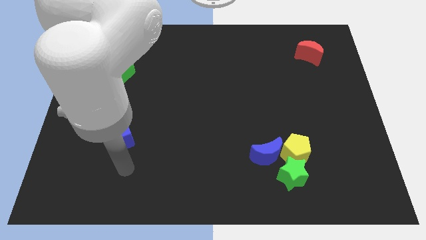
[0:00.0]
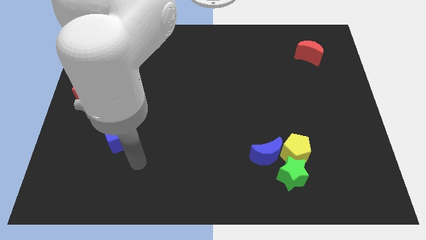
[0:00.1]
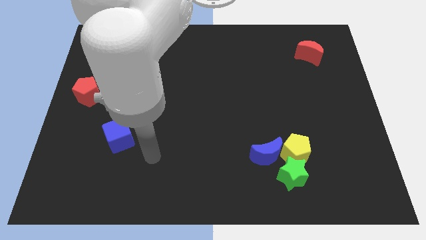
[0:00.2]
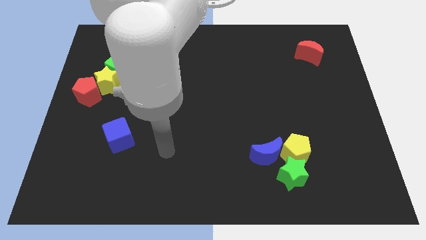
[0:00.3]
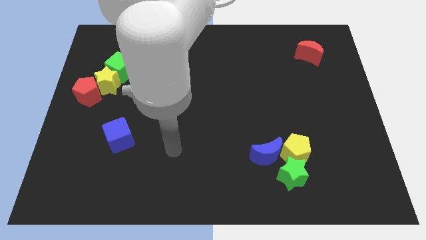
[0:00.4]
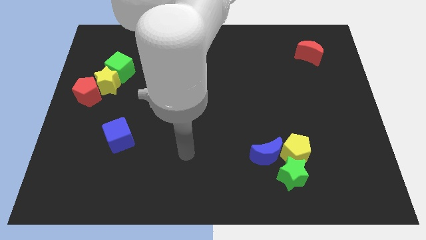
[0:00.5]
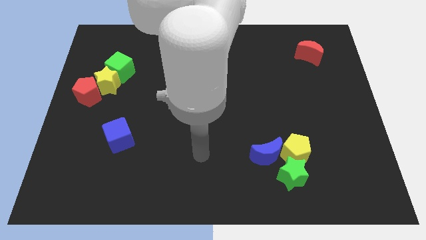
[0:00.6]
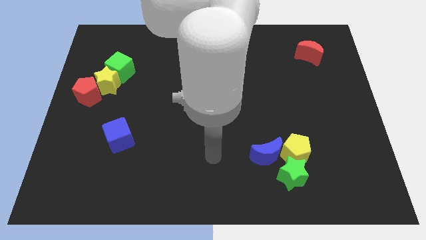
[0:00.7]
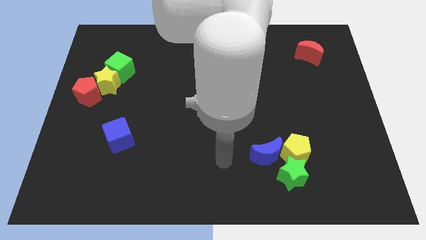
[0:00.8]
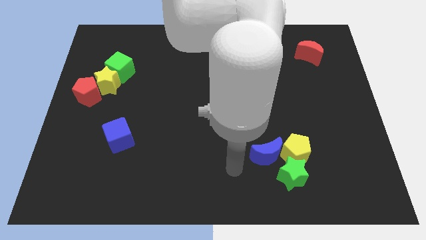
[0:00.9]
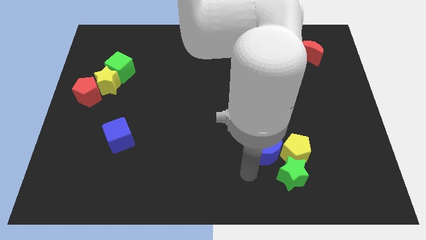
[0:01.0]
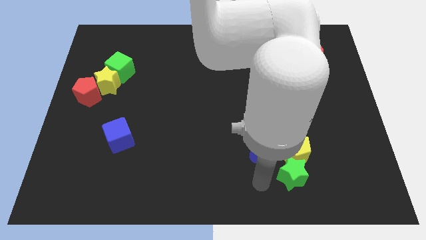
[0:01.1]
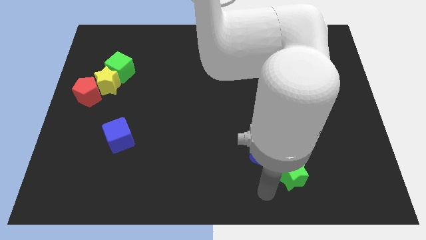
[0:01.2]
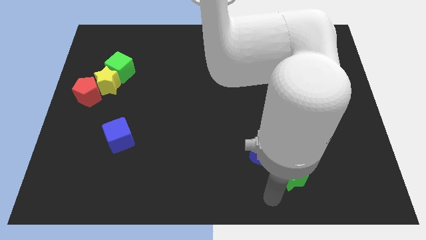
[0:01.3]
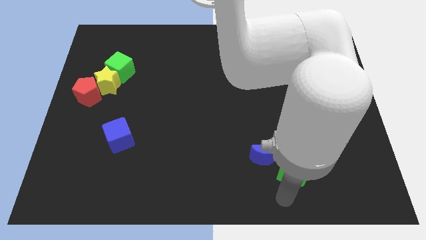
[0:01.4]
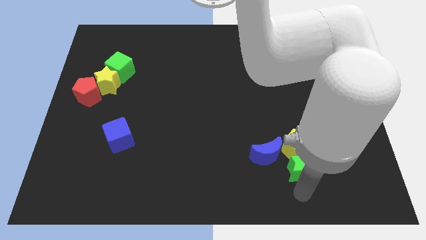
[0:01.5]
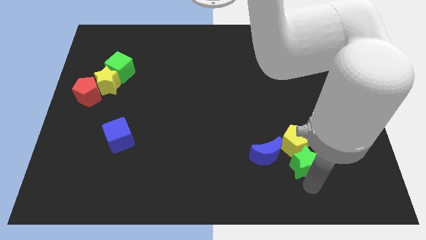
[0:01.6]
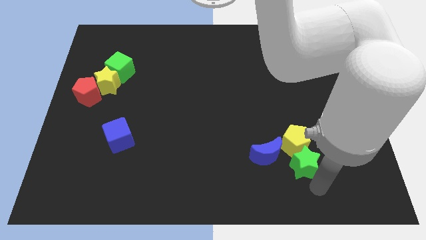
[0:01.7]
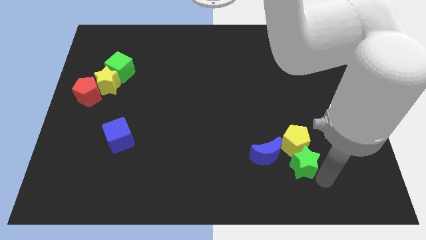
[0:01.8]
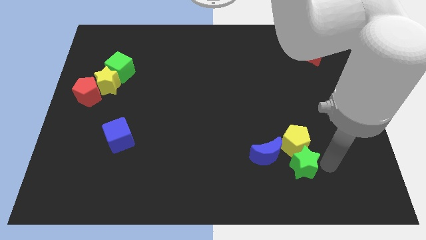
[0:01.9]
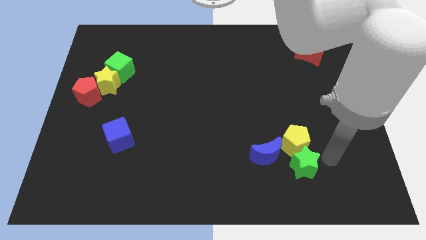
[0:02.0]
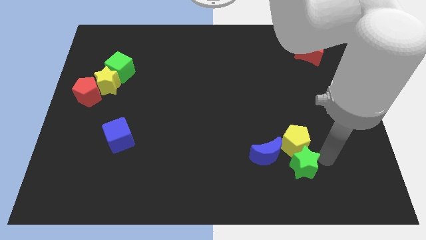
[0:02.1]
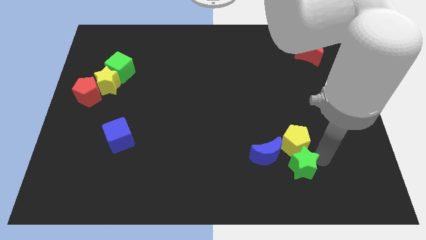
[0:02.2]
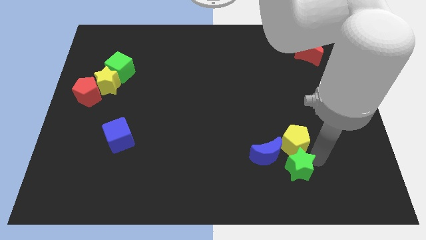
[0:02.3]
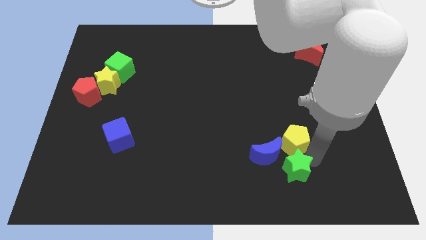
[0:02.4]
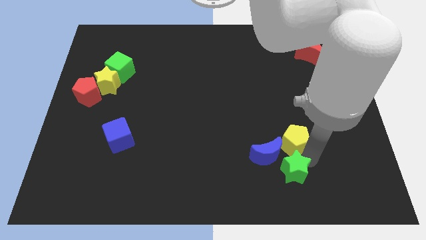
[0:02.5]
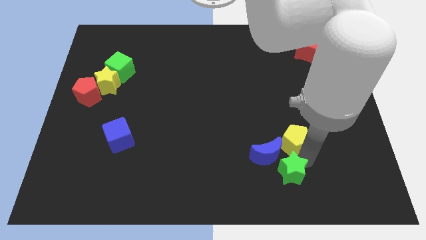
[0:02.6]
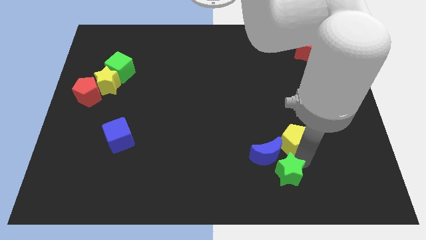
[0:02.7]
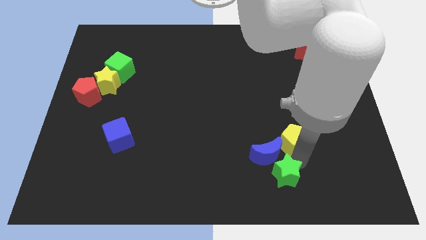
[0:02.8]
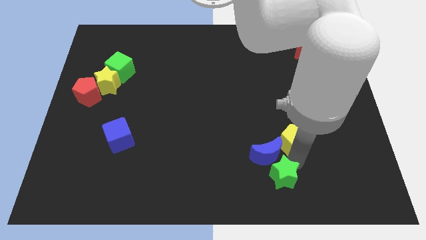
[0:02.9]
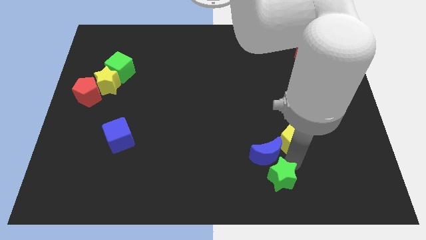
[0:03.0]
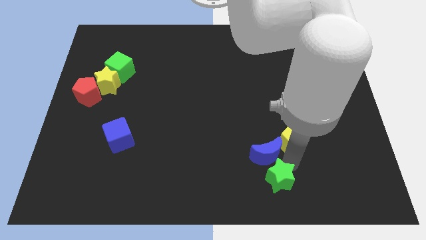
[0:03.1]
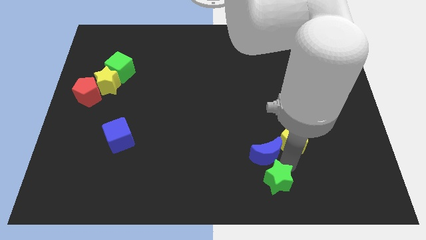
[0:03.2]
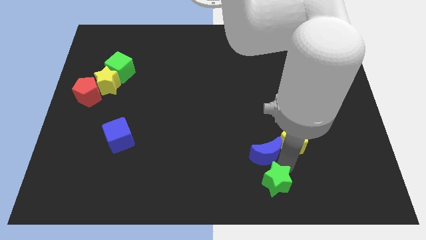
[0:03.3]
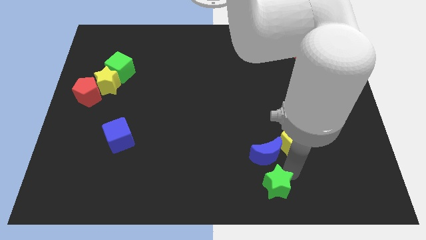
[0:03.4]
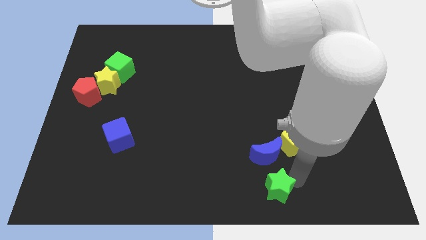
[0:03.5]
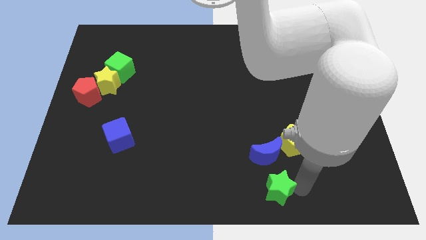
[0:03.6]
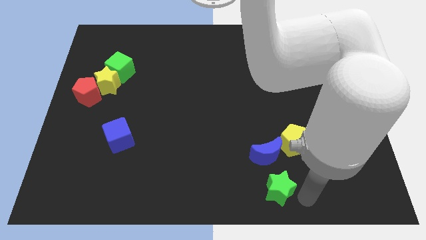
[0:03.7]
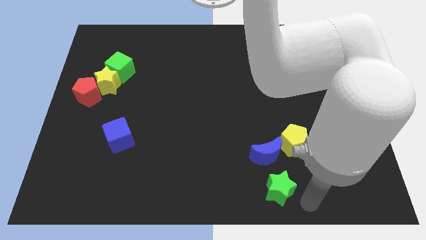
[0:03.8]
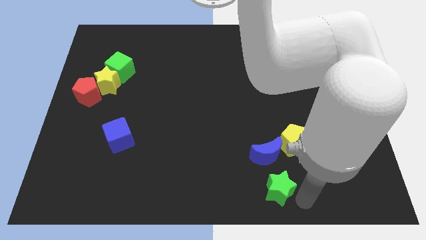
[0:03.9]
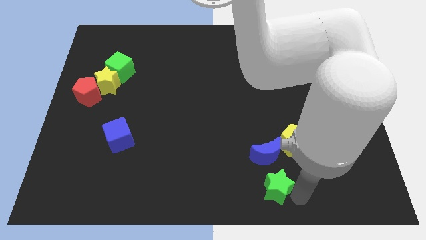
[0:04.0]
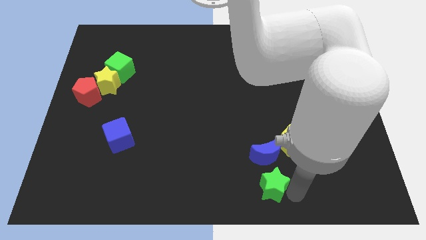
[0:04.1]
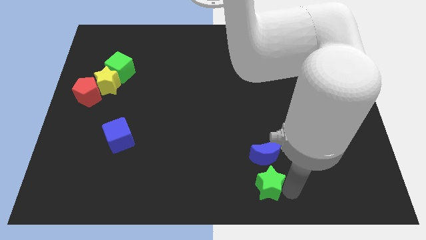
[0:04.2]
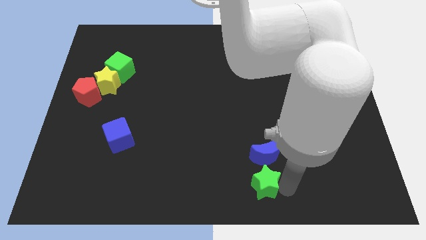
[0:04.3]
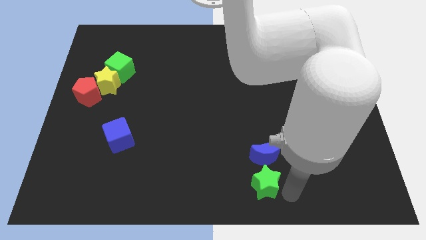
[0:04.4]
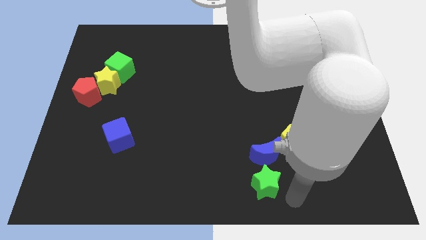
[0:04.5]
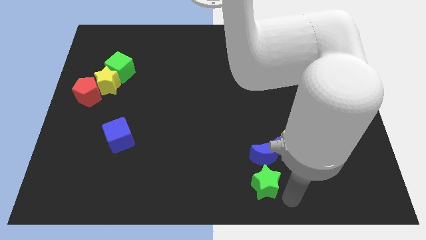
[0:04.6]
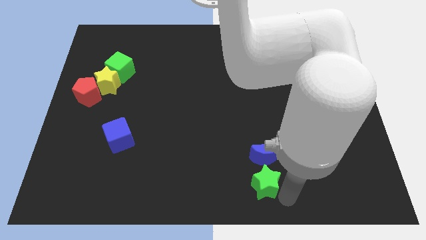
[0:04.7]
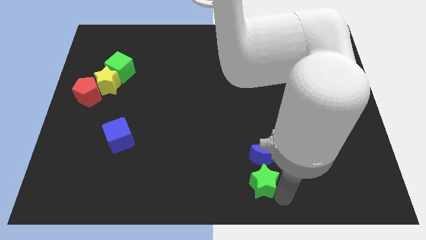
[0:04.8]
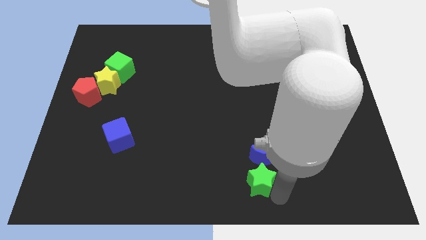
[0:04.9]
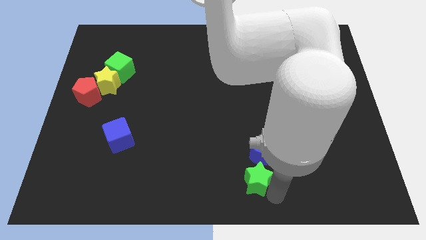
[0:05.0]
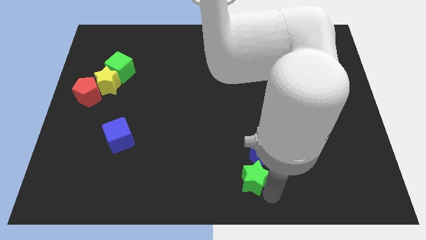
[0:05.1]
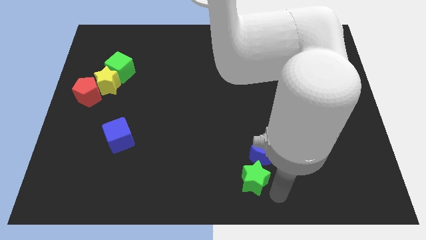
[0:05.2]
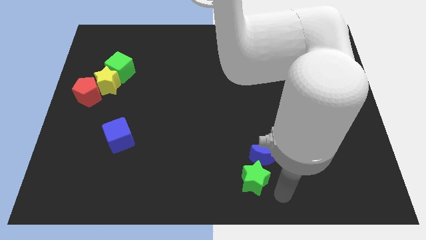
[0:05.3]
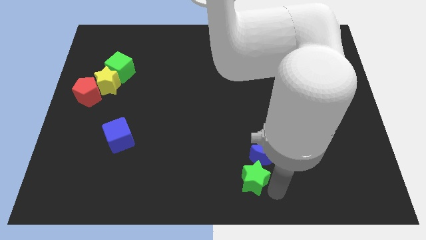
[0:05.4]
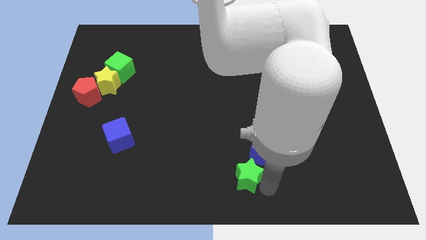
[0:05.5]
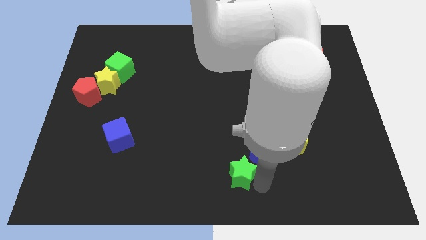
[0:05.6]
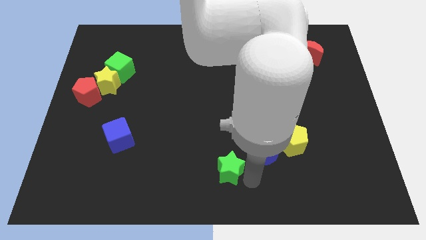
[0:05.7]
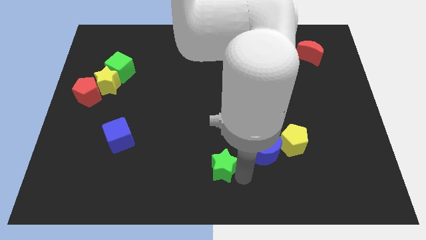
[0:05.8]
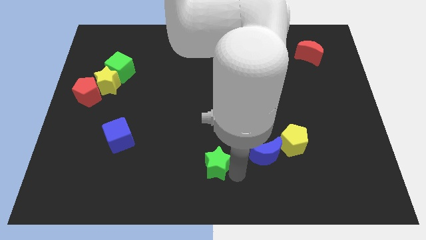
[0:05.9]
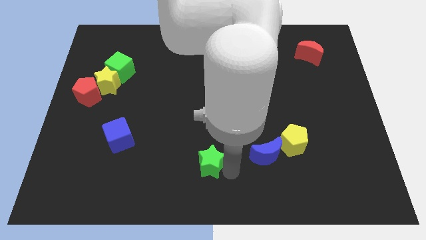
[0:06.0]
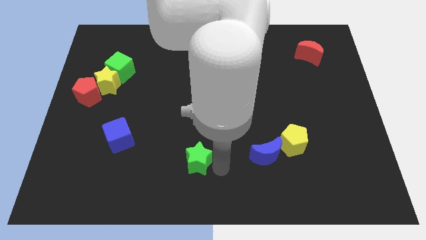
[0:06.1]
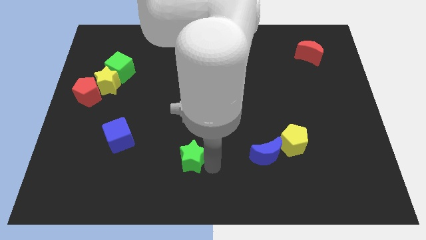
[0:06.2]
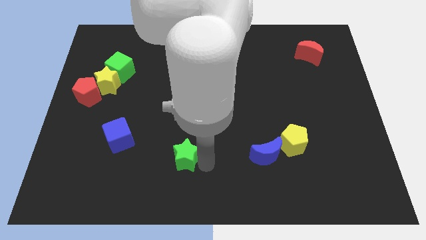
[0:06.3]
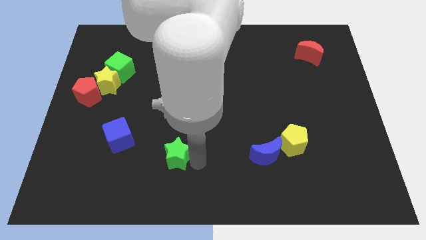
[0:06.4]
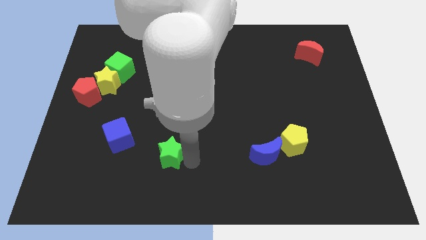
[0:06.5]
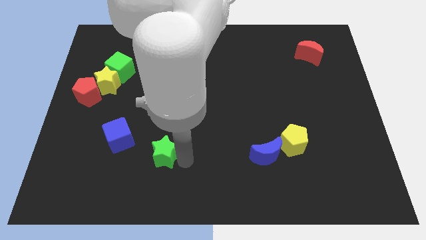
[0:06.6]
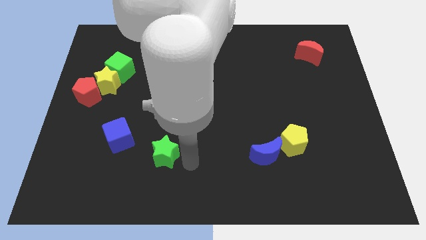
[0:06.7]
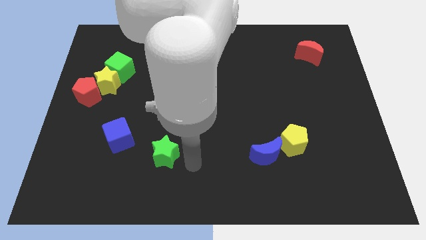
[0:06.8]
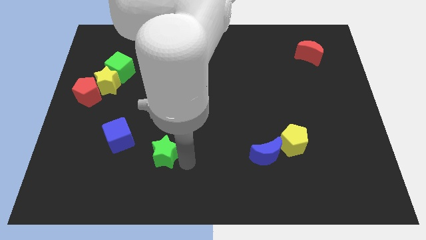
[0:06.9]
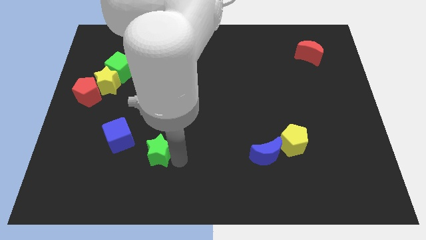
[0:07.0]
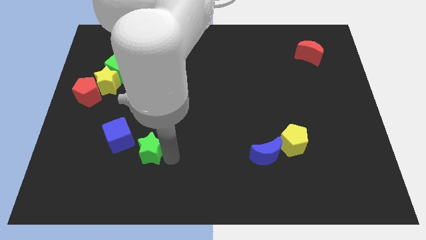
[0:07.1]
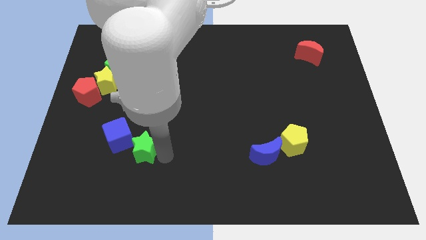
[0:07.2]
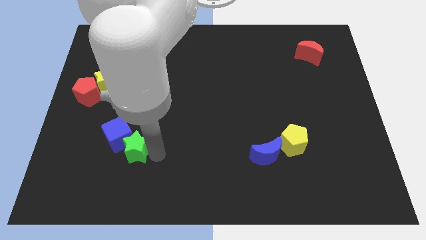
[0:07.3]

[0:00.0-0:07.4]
put the green star close to the blue cube
